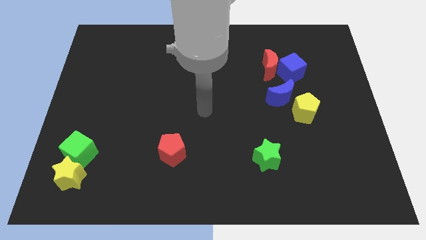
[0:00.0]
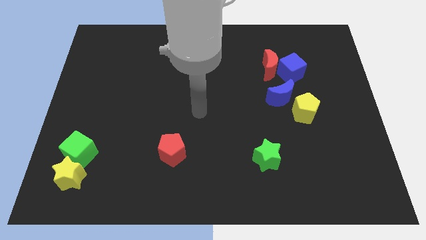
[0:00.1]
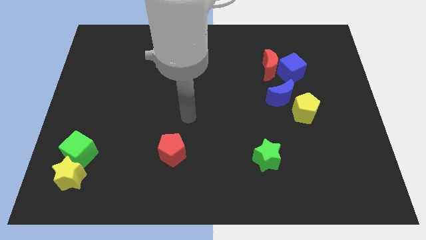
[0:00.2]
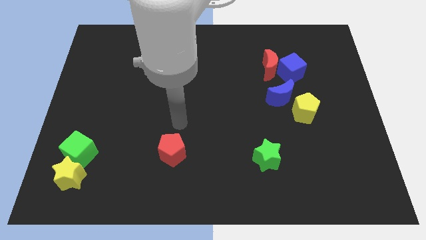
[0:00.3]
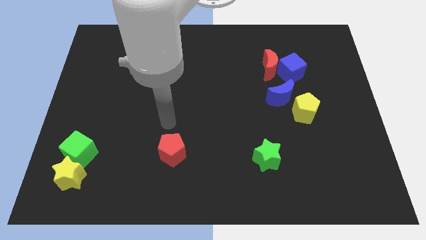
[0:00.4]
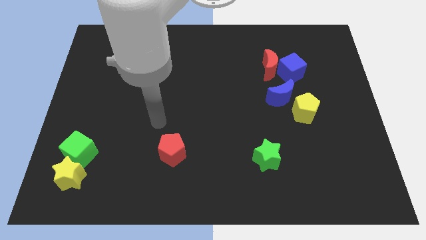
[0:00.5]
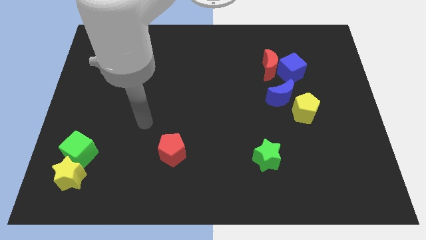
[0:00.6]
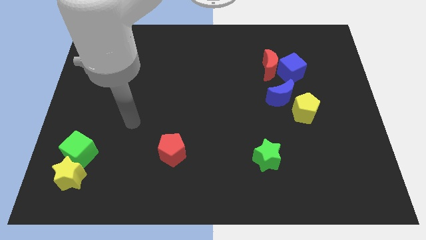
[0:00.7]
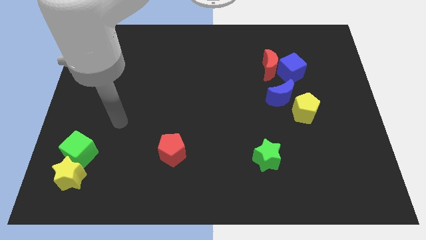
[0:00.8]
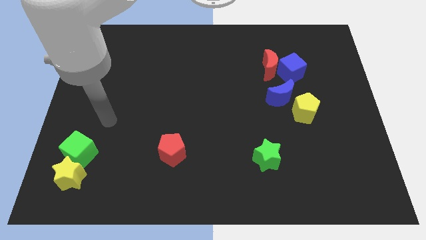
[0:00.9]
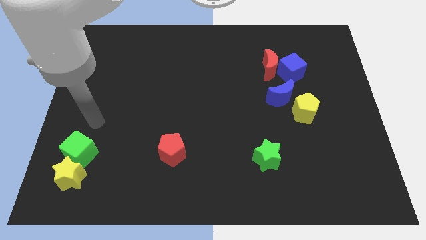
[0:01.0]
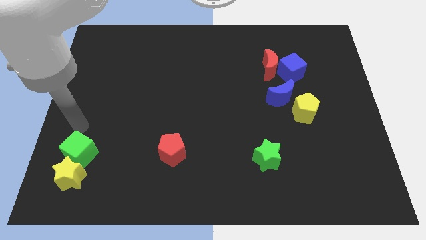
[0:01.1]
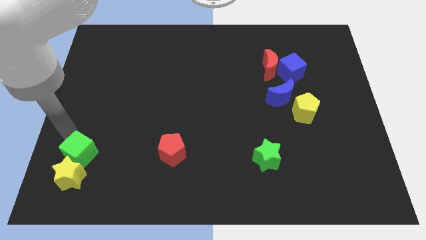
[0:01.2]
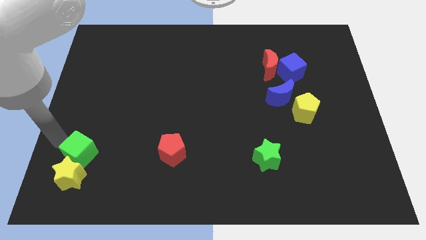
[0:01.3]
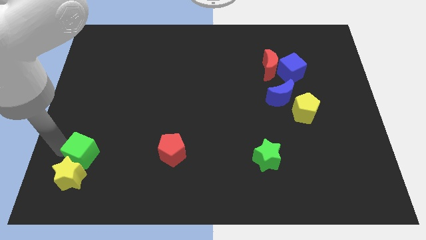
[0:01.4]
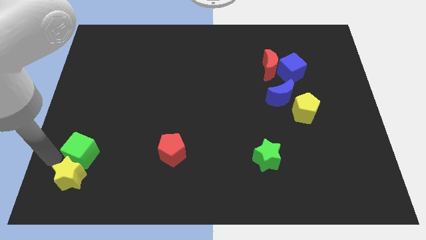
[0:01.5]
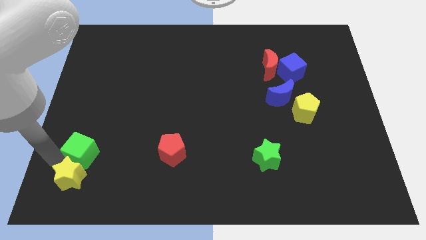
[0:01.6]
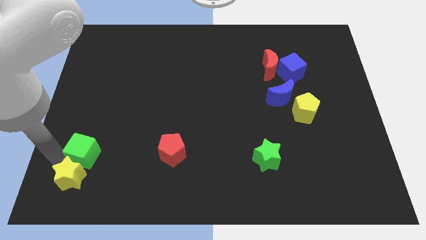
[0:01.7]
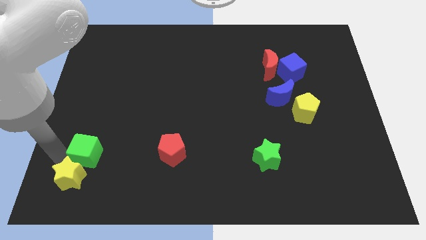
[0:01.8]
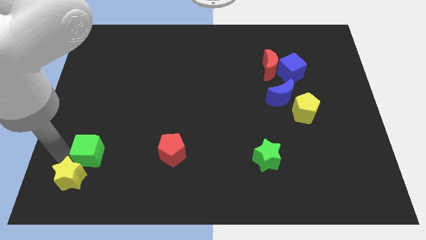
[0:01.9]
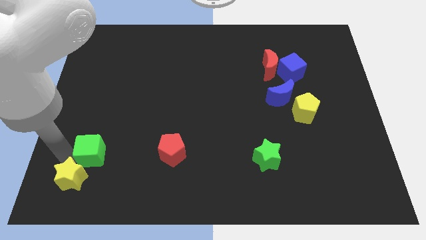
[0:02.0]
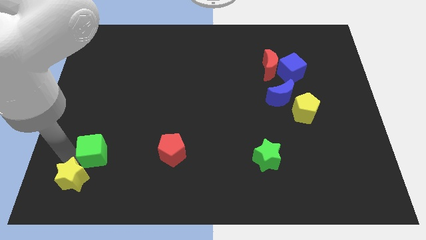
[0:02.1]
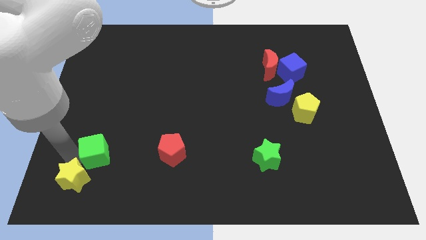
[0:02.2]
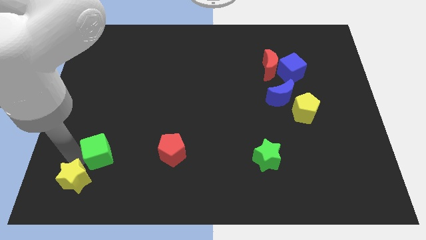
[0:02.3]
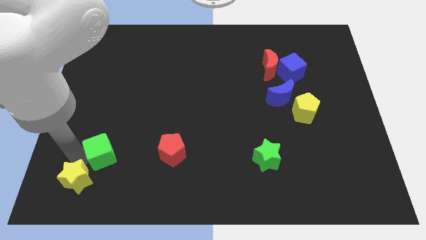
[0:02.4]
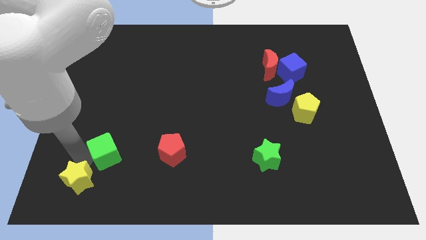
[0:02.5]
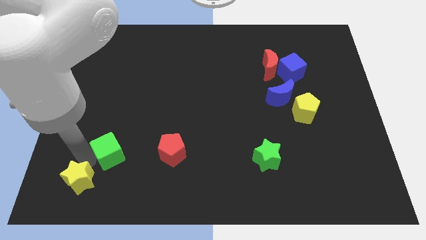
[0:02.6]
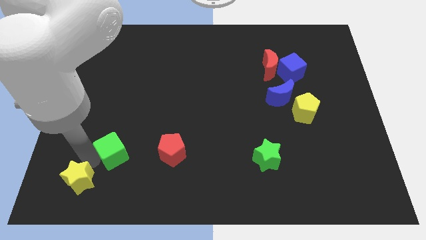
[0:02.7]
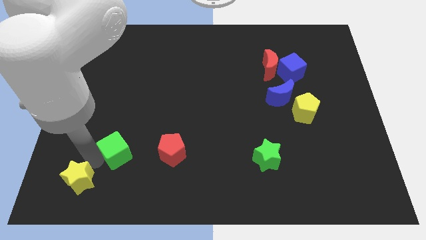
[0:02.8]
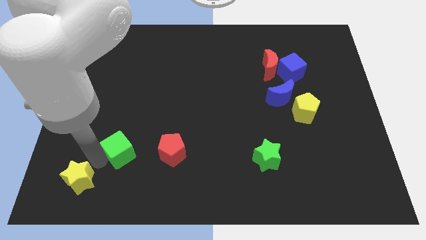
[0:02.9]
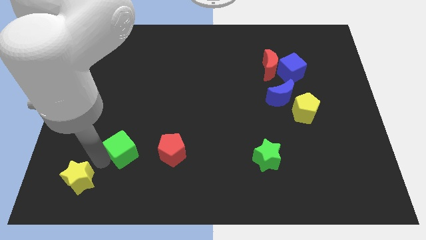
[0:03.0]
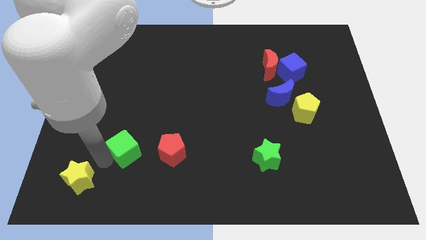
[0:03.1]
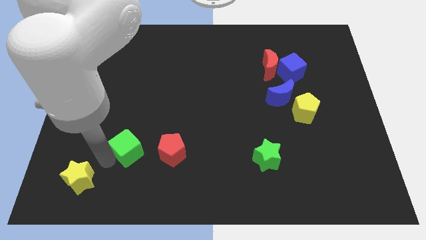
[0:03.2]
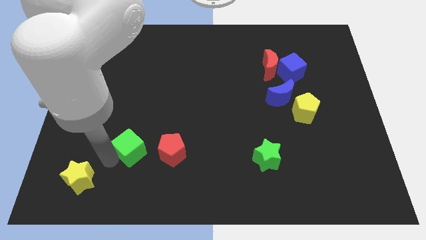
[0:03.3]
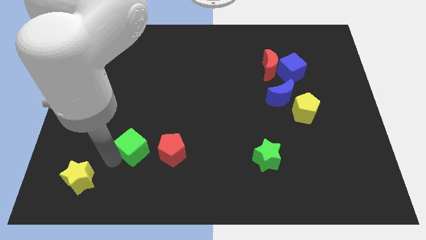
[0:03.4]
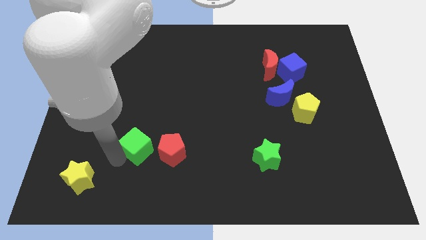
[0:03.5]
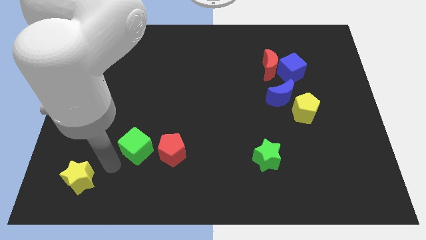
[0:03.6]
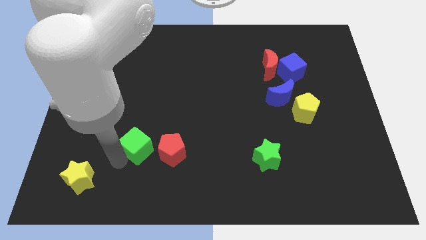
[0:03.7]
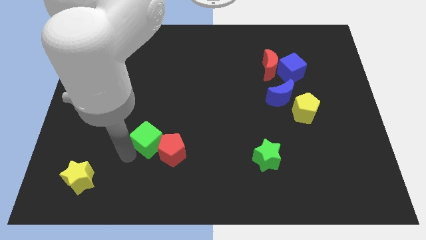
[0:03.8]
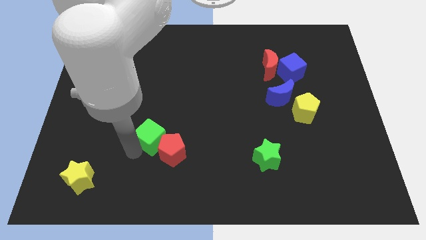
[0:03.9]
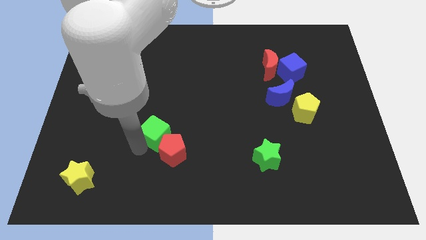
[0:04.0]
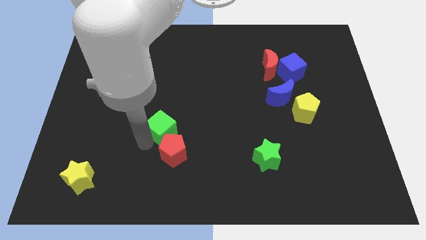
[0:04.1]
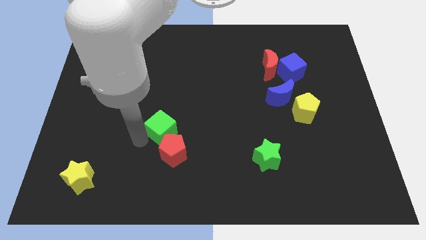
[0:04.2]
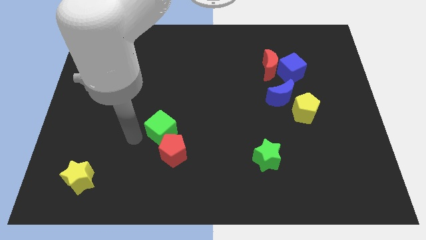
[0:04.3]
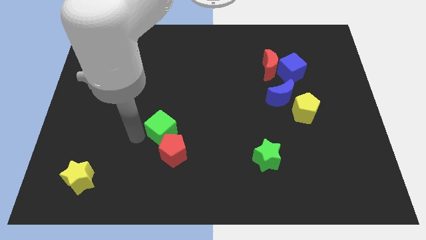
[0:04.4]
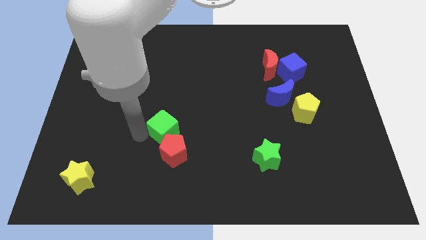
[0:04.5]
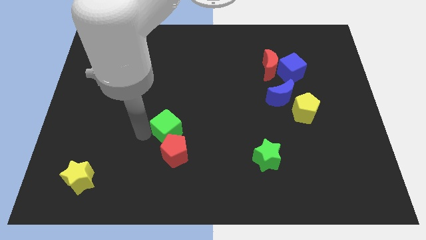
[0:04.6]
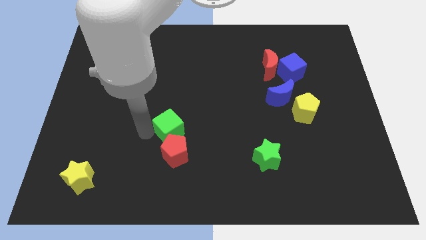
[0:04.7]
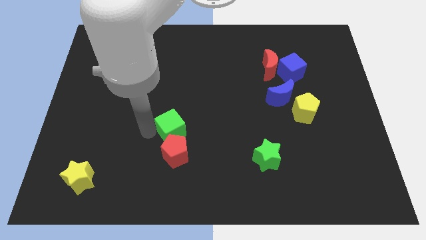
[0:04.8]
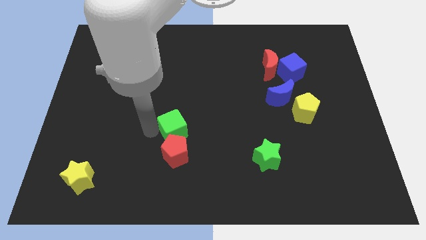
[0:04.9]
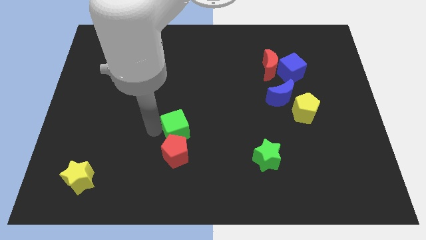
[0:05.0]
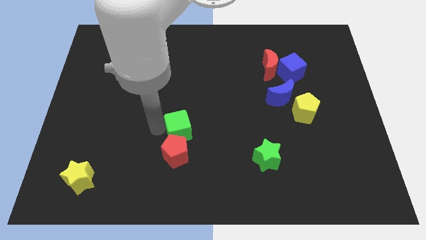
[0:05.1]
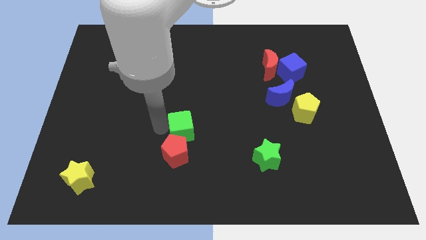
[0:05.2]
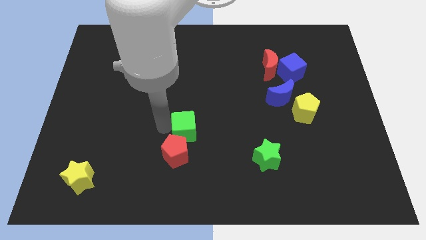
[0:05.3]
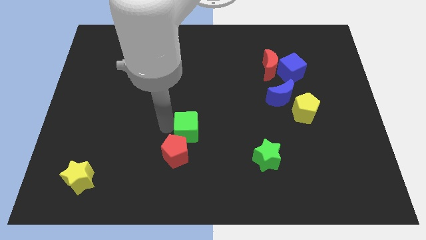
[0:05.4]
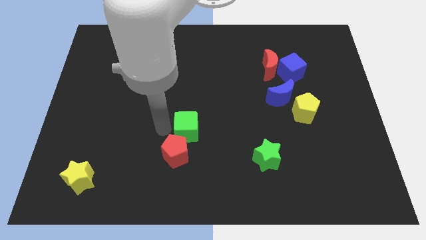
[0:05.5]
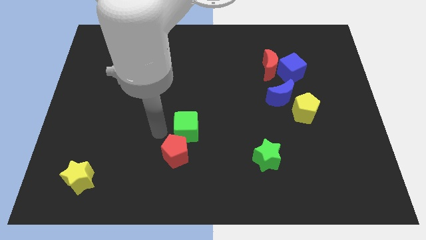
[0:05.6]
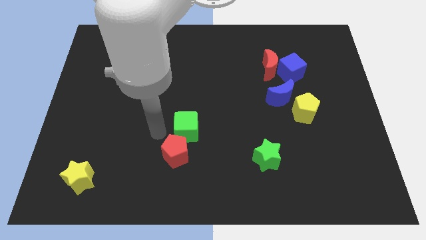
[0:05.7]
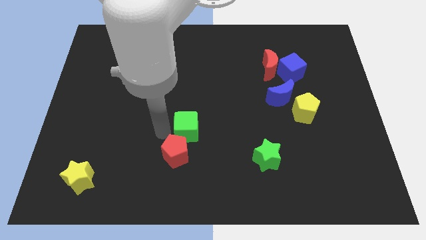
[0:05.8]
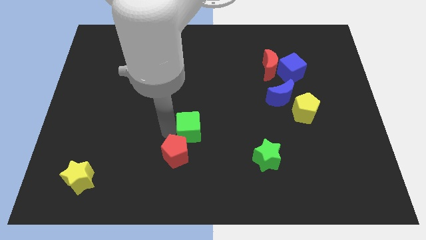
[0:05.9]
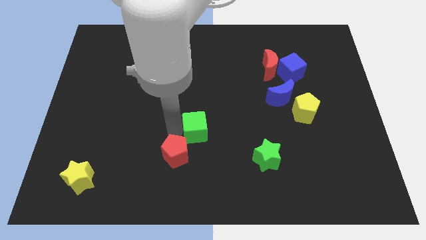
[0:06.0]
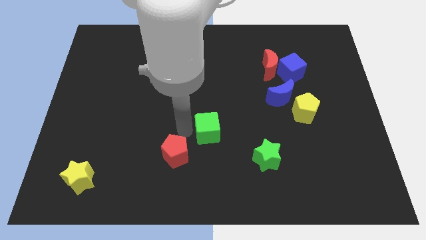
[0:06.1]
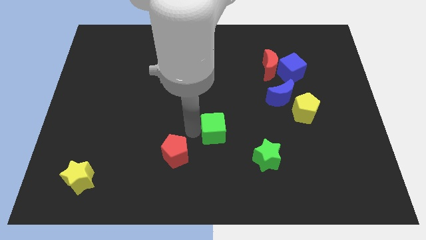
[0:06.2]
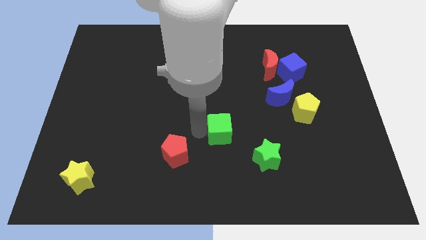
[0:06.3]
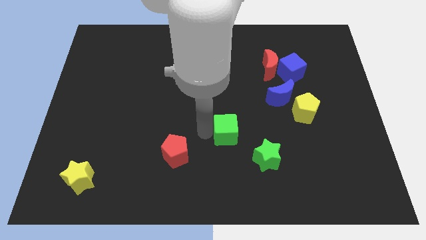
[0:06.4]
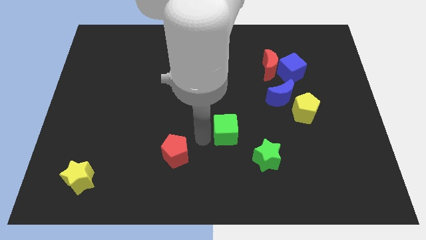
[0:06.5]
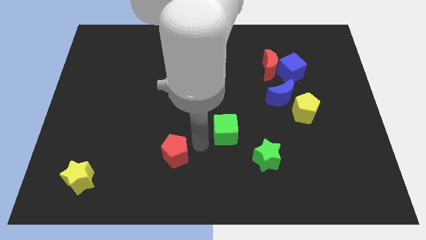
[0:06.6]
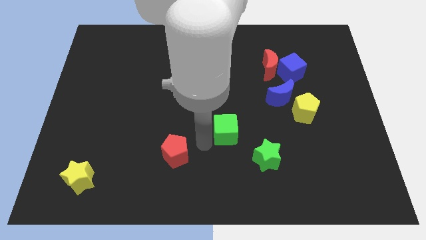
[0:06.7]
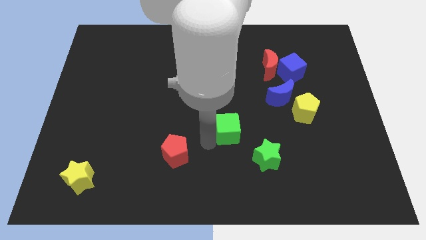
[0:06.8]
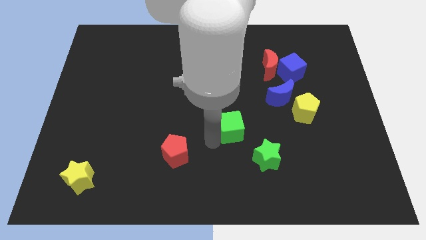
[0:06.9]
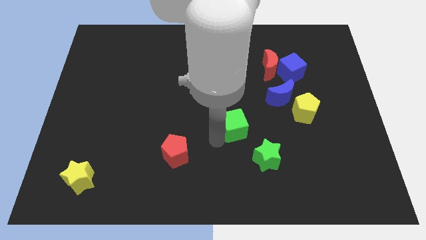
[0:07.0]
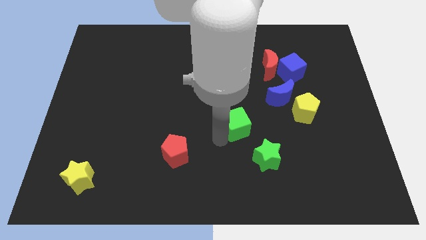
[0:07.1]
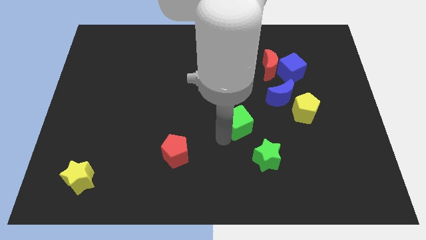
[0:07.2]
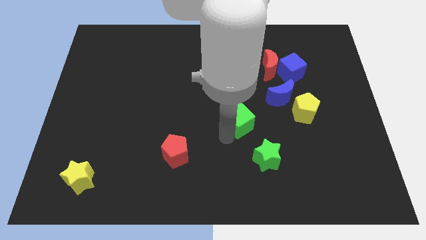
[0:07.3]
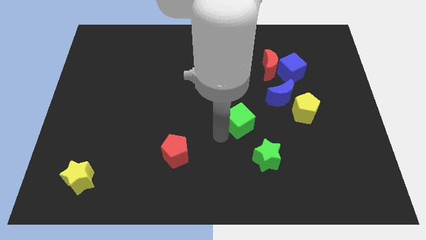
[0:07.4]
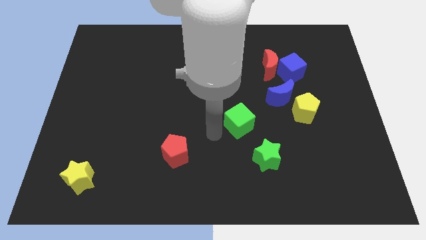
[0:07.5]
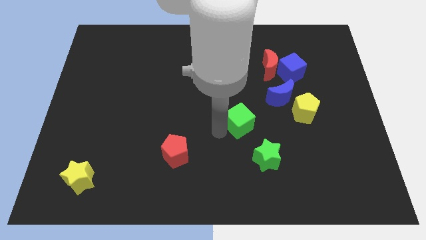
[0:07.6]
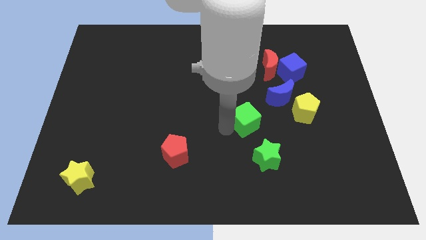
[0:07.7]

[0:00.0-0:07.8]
push the green cube to the bottom left side of the blue moon
